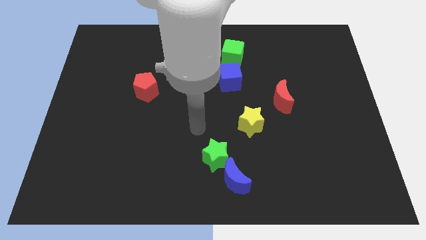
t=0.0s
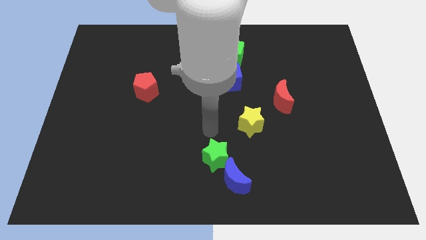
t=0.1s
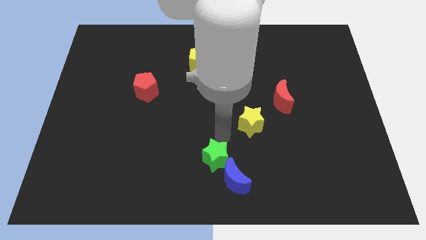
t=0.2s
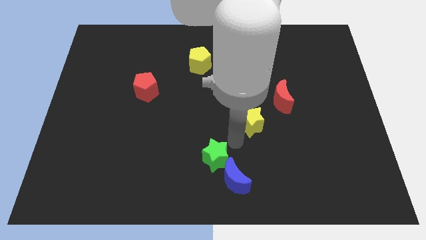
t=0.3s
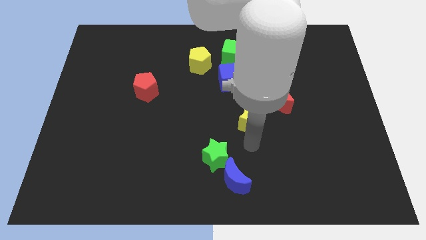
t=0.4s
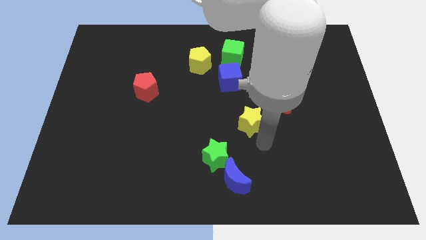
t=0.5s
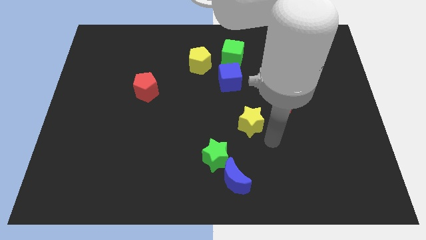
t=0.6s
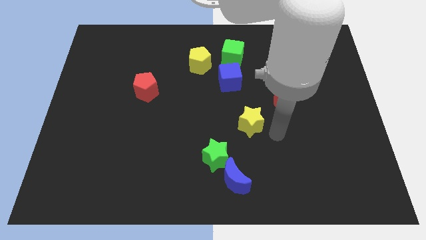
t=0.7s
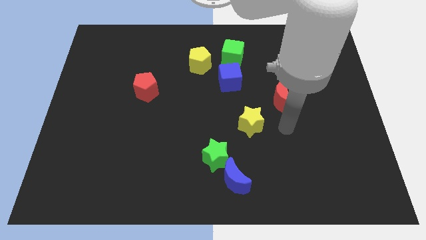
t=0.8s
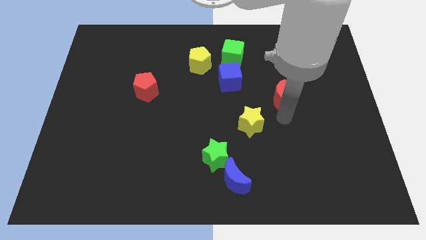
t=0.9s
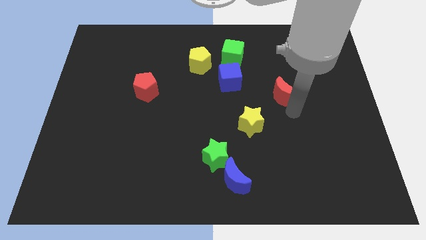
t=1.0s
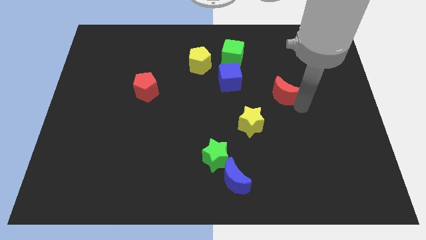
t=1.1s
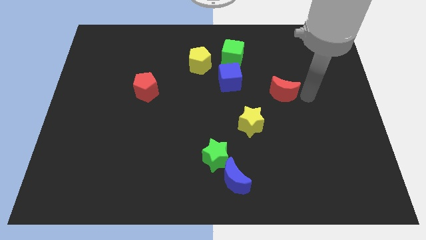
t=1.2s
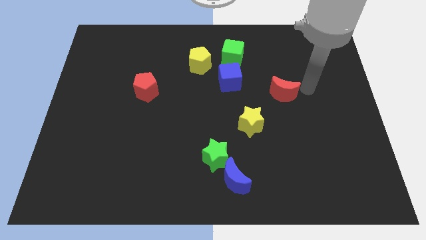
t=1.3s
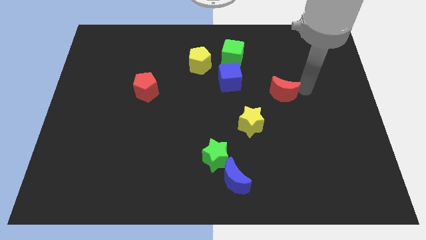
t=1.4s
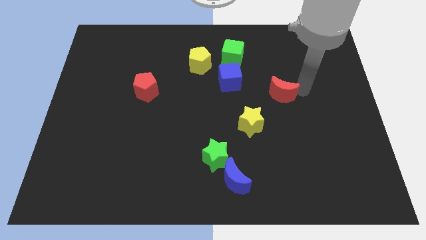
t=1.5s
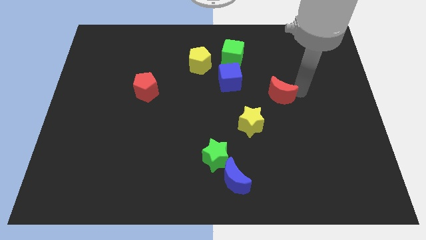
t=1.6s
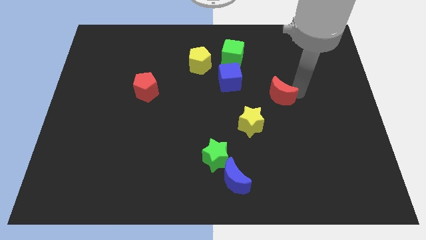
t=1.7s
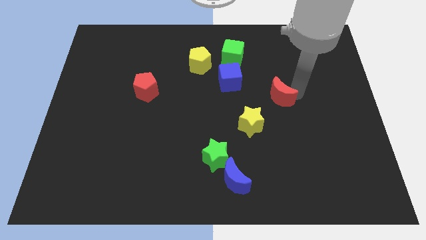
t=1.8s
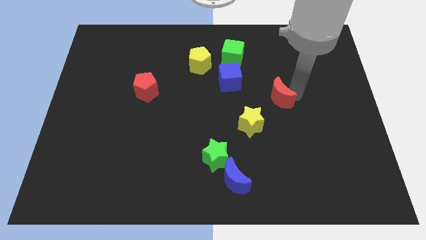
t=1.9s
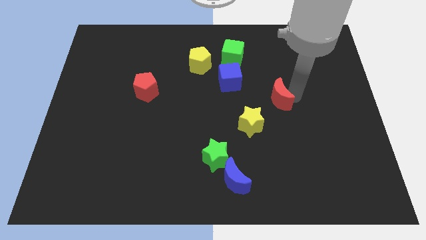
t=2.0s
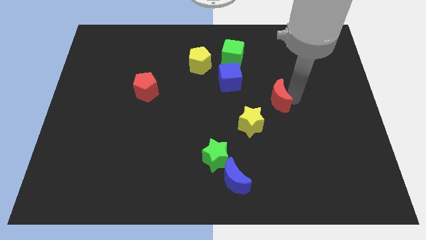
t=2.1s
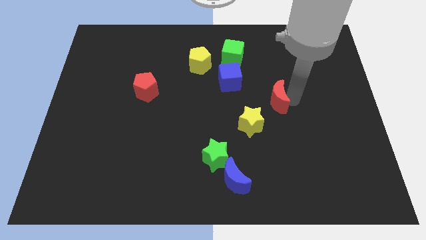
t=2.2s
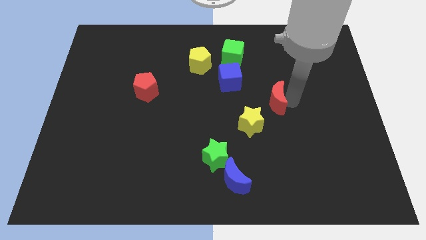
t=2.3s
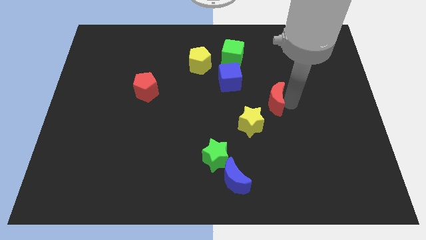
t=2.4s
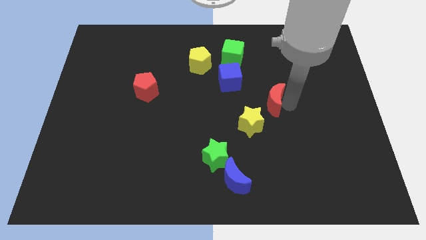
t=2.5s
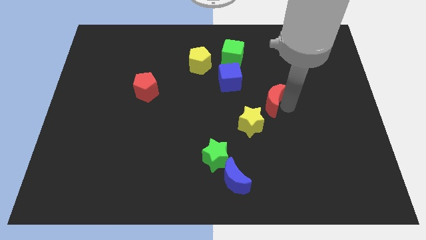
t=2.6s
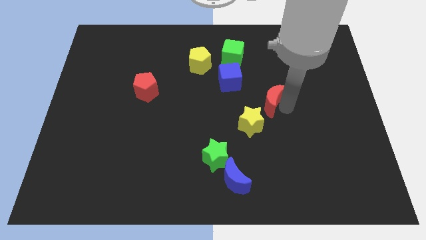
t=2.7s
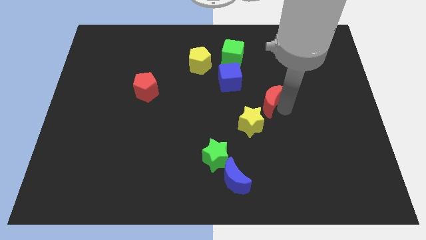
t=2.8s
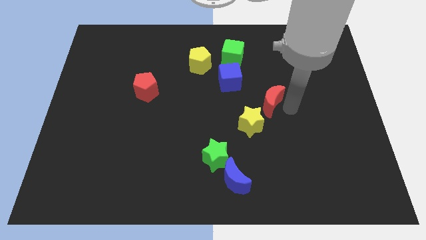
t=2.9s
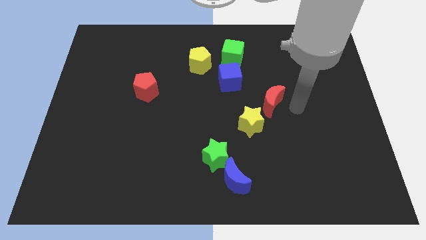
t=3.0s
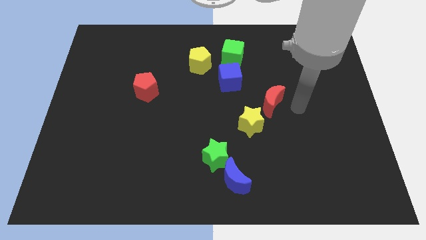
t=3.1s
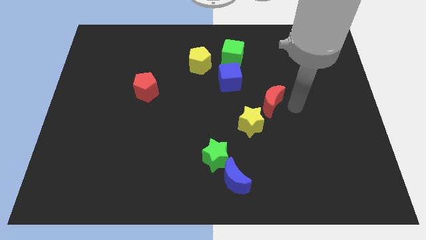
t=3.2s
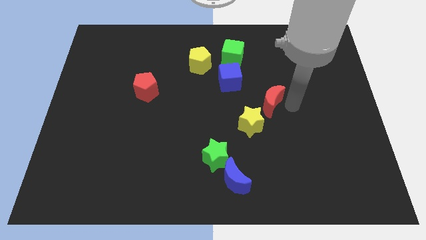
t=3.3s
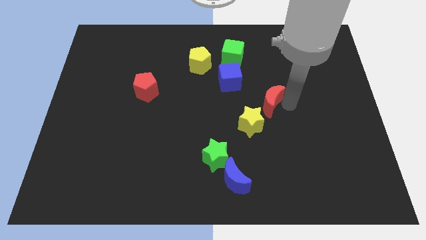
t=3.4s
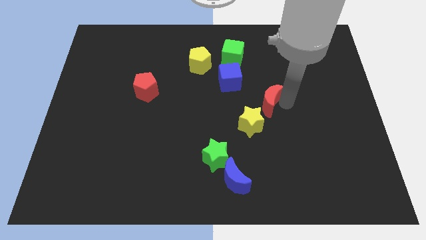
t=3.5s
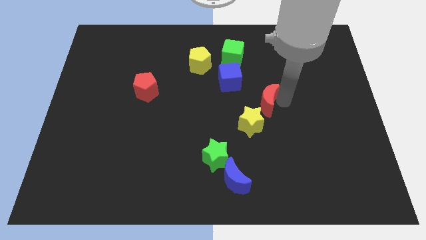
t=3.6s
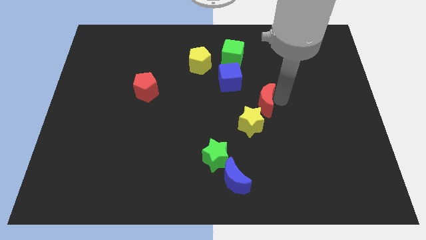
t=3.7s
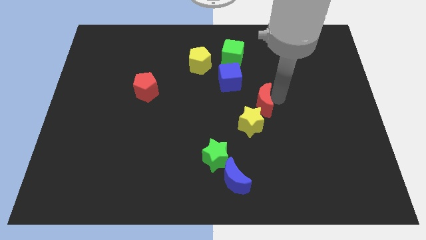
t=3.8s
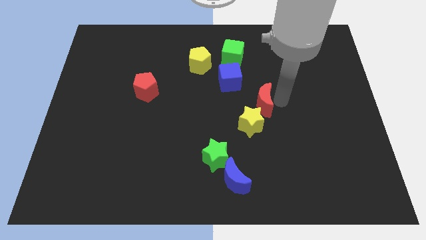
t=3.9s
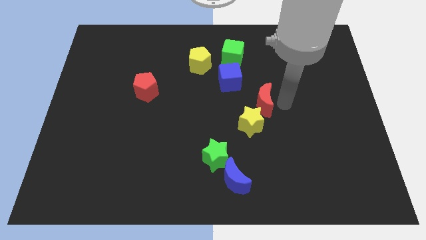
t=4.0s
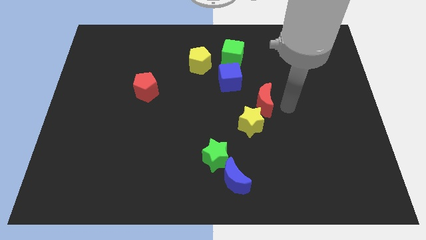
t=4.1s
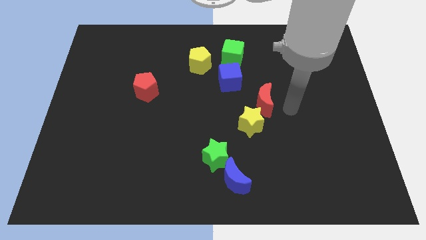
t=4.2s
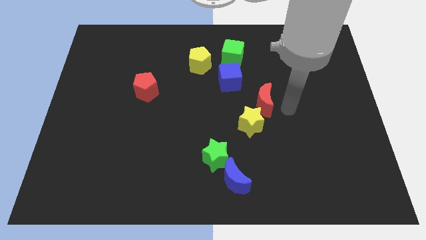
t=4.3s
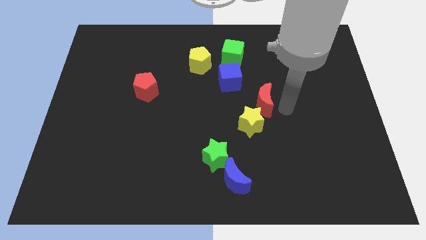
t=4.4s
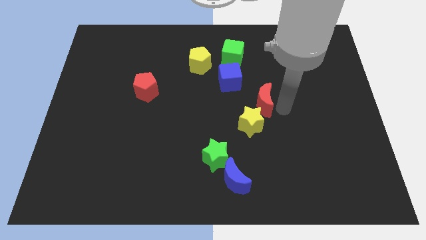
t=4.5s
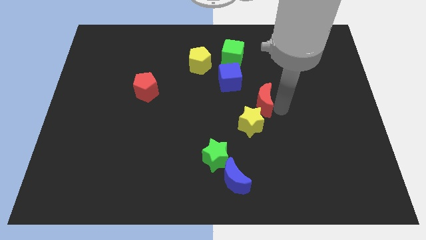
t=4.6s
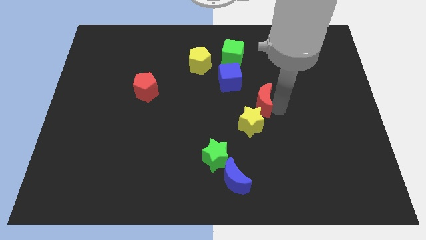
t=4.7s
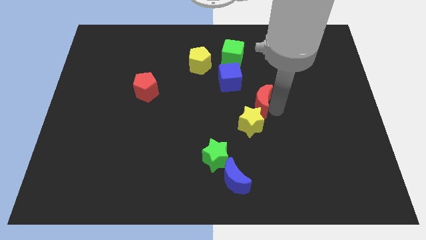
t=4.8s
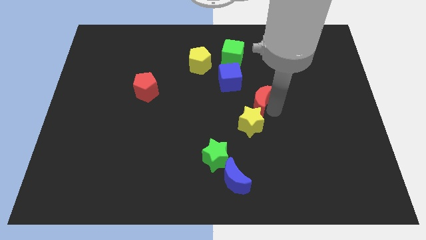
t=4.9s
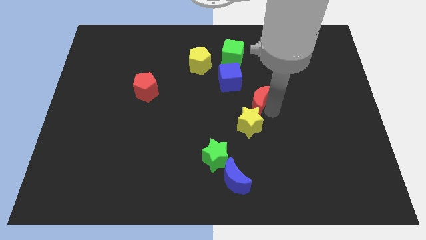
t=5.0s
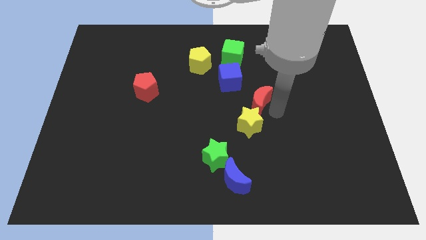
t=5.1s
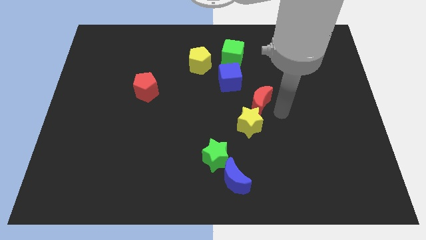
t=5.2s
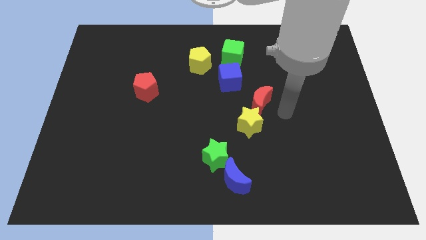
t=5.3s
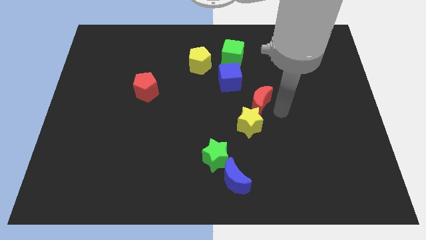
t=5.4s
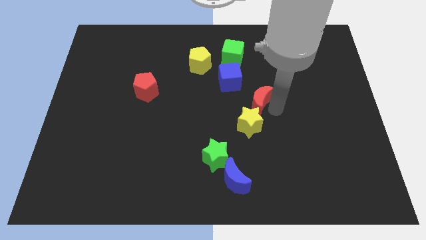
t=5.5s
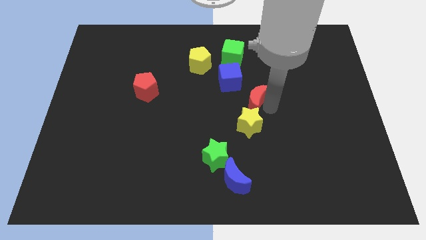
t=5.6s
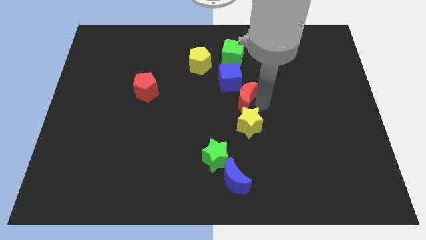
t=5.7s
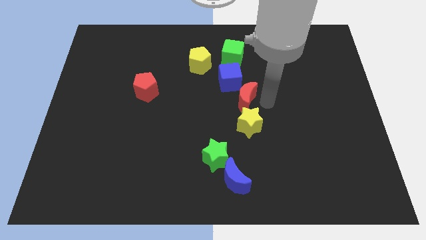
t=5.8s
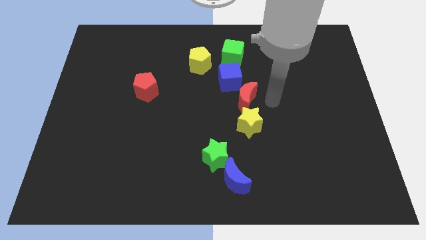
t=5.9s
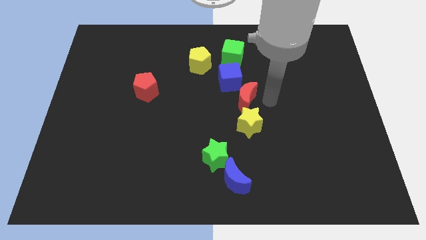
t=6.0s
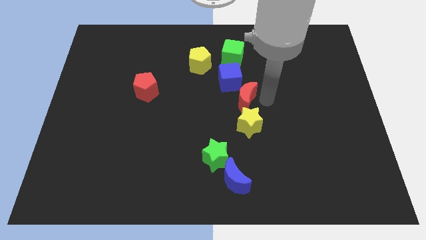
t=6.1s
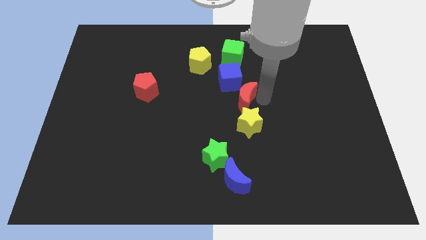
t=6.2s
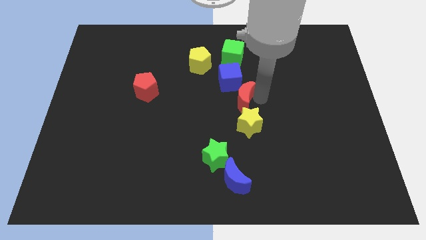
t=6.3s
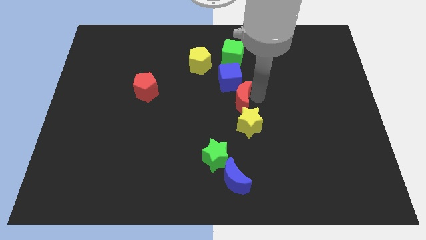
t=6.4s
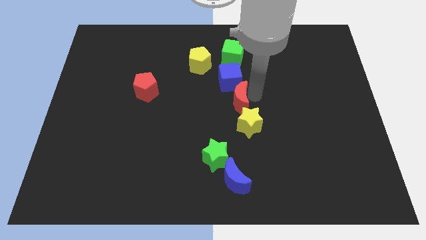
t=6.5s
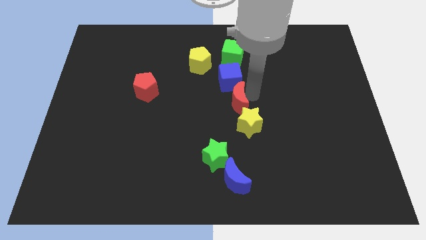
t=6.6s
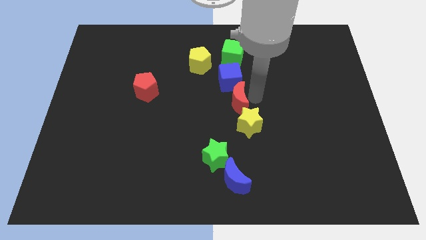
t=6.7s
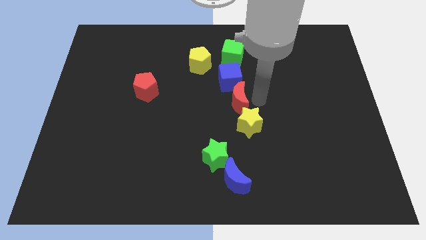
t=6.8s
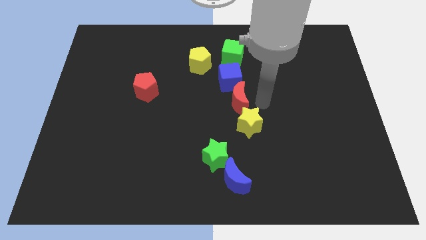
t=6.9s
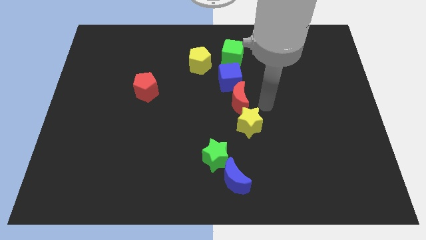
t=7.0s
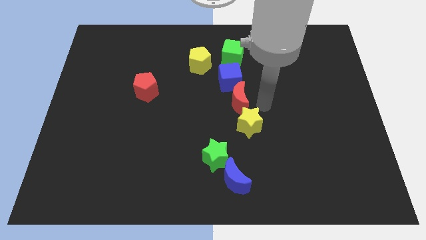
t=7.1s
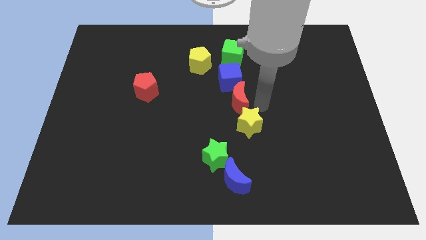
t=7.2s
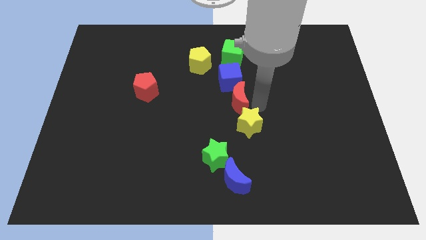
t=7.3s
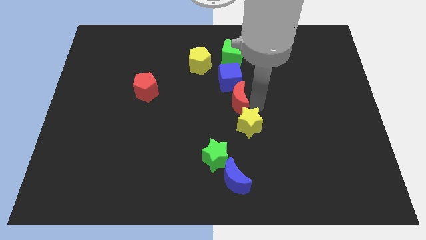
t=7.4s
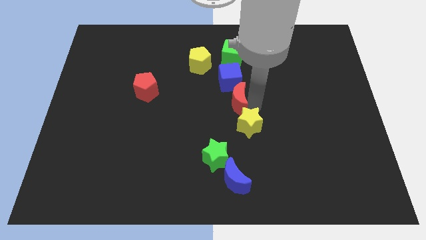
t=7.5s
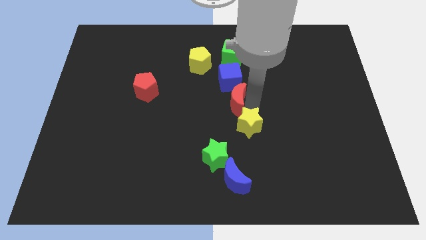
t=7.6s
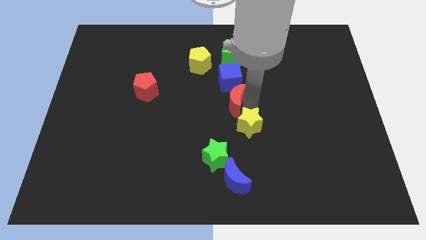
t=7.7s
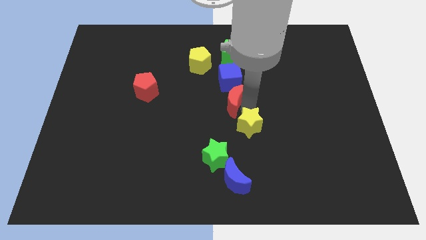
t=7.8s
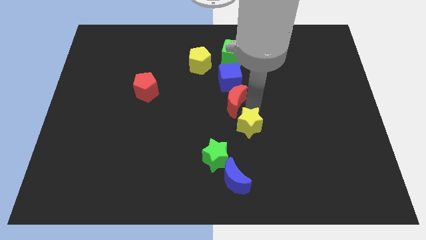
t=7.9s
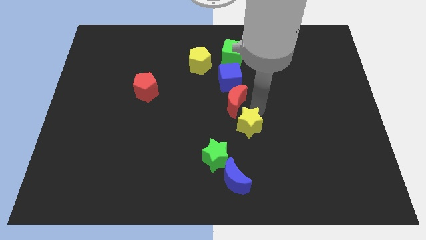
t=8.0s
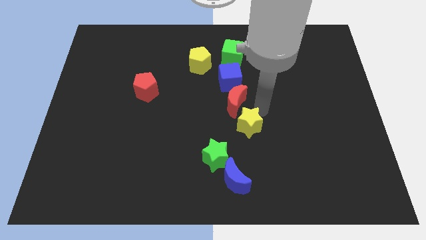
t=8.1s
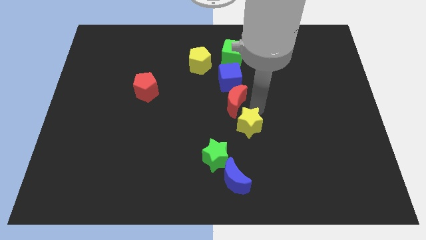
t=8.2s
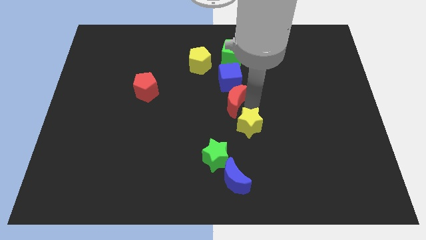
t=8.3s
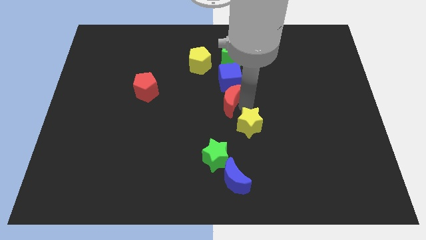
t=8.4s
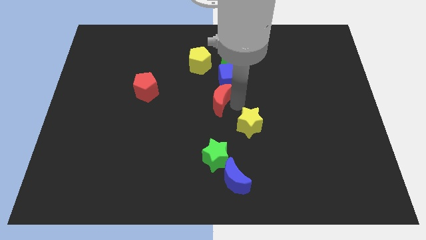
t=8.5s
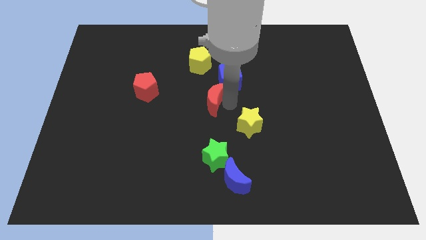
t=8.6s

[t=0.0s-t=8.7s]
put the red moon to the bottom side of the yellow pentagon
